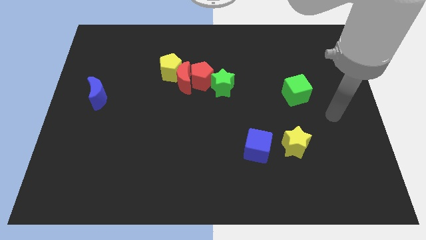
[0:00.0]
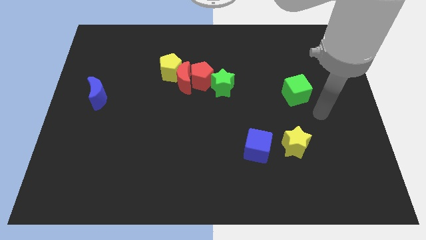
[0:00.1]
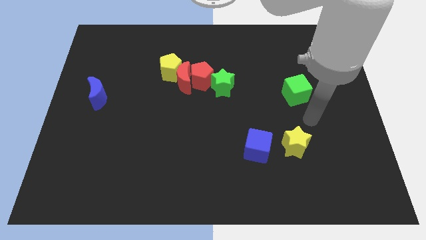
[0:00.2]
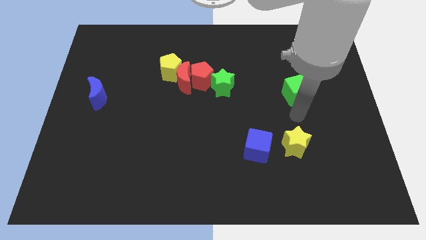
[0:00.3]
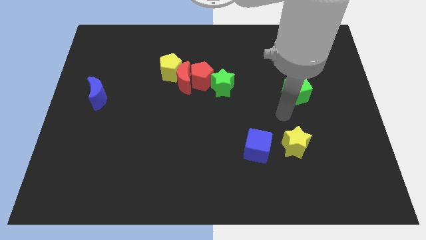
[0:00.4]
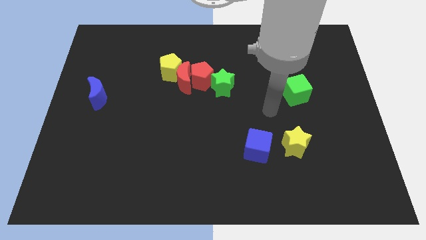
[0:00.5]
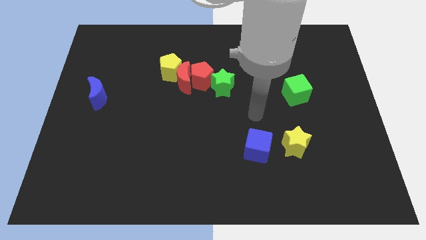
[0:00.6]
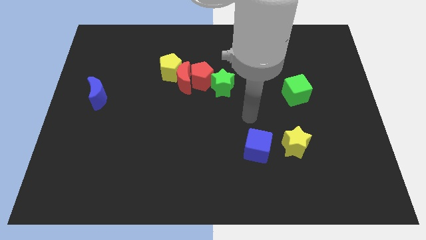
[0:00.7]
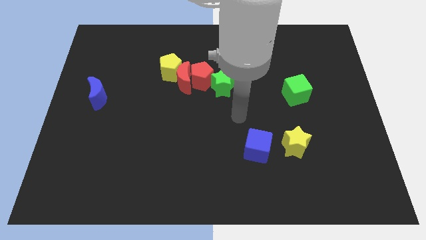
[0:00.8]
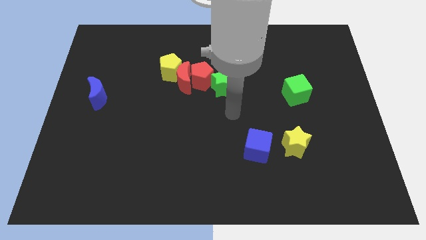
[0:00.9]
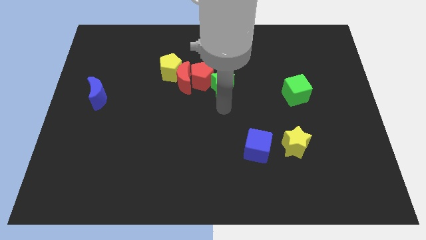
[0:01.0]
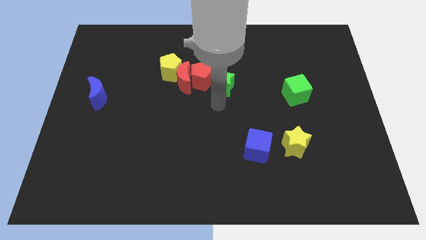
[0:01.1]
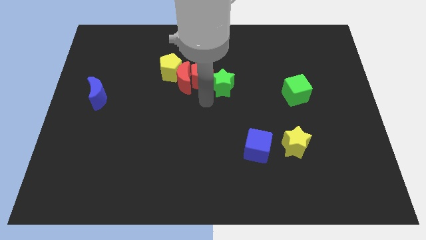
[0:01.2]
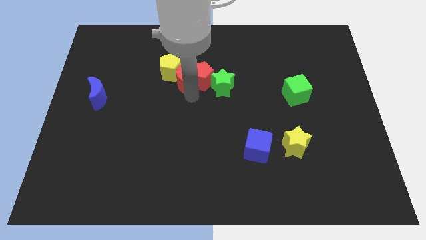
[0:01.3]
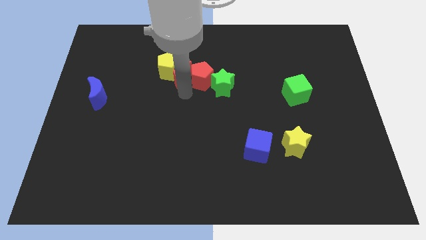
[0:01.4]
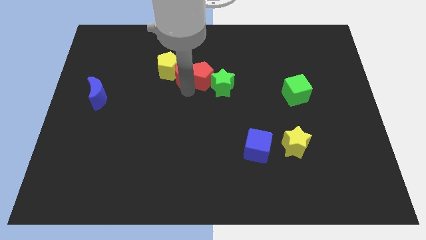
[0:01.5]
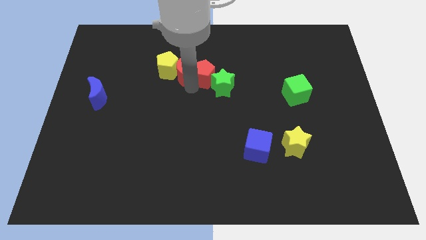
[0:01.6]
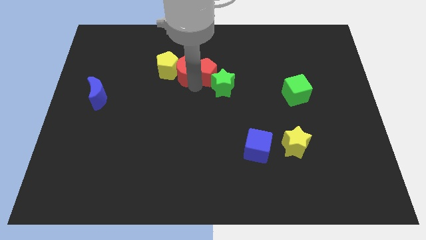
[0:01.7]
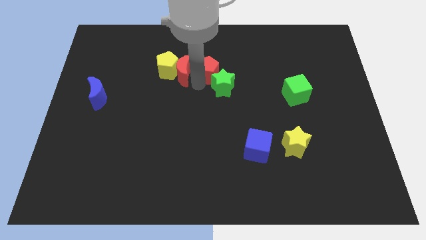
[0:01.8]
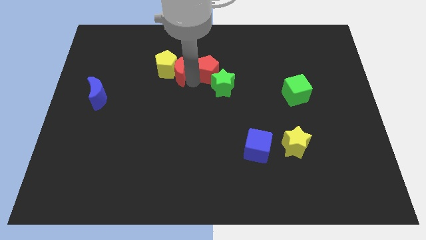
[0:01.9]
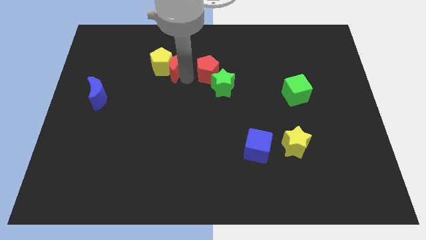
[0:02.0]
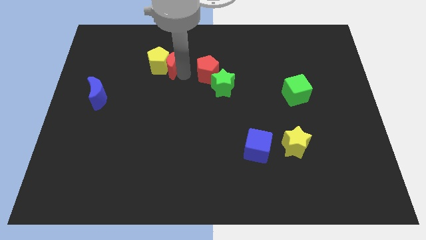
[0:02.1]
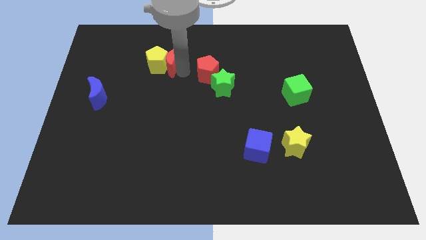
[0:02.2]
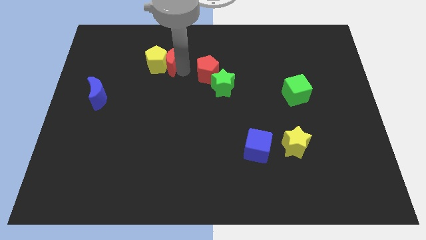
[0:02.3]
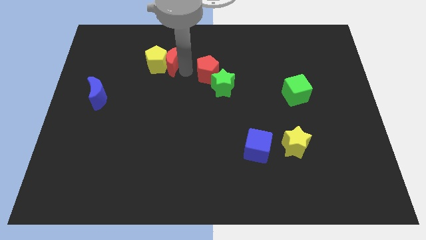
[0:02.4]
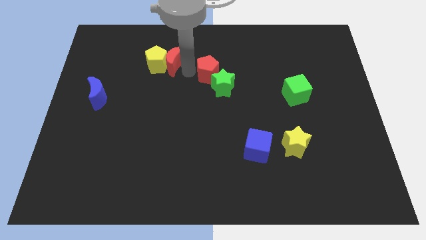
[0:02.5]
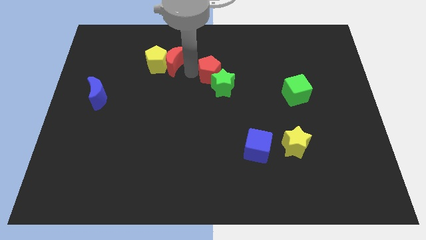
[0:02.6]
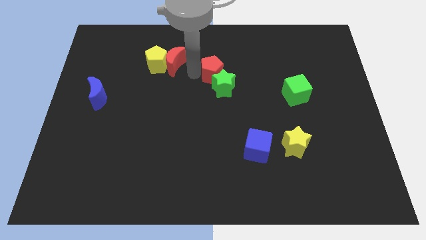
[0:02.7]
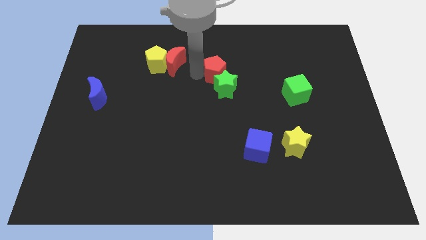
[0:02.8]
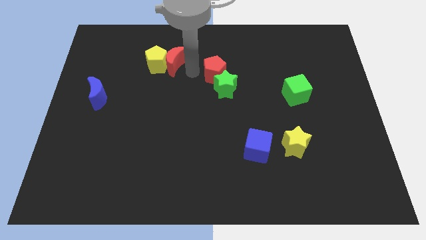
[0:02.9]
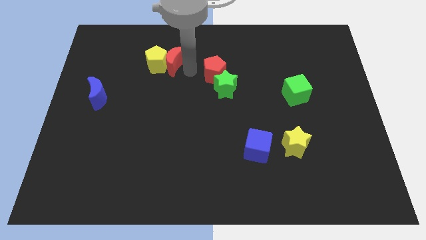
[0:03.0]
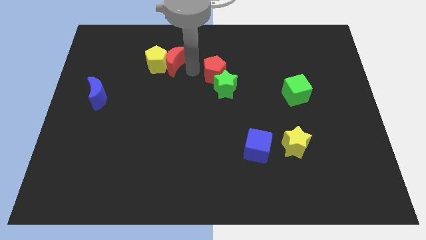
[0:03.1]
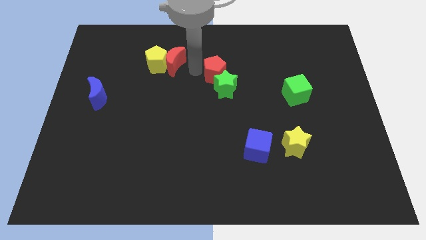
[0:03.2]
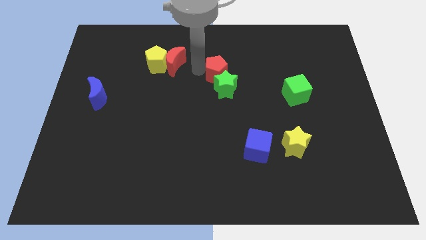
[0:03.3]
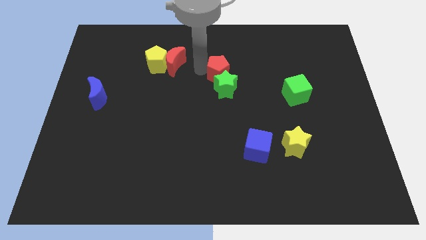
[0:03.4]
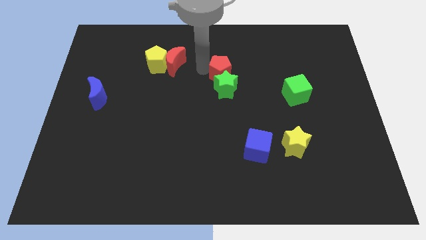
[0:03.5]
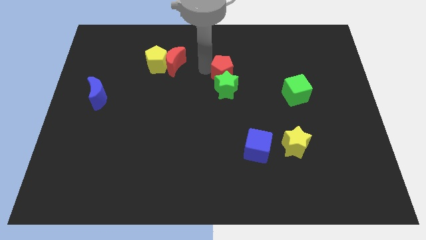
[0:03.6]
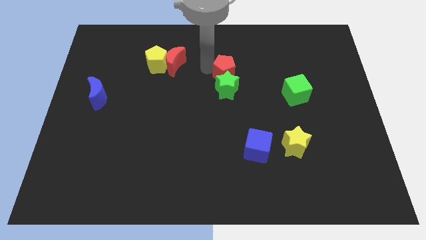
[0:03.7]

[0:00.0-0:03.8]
pull the red pentagon apart from the group of blocks

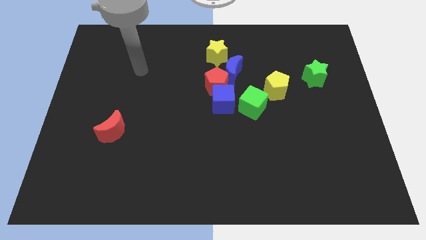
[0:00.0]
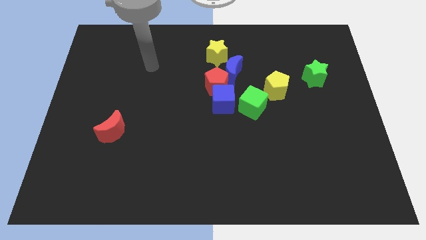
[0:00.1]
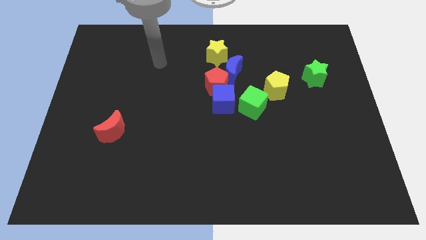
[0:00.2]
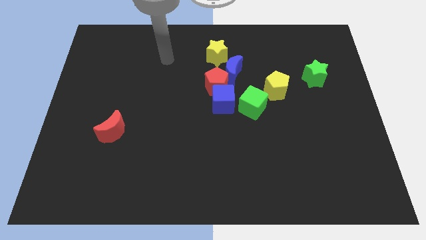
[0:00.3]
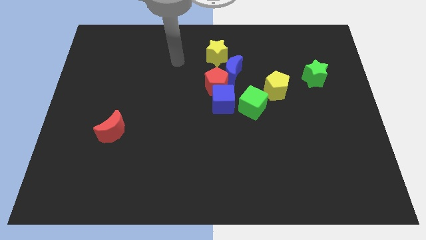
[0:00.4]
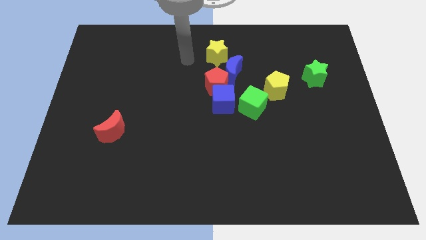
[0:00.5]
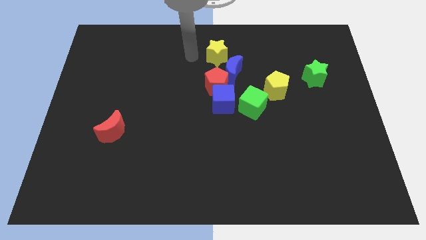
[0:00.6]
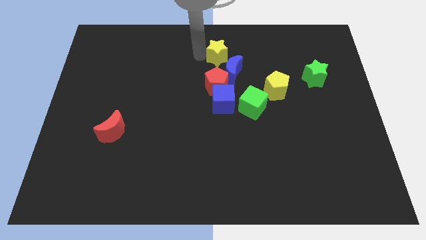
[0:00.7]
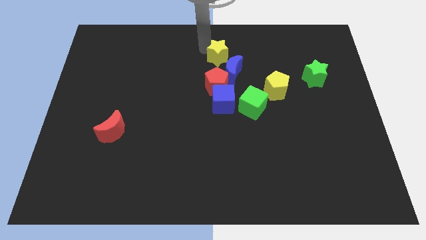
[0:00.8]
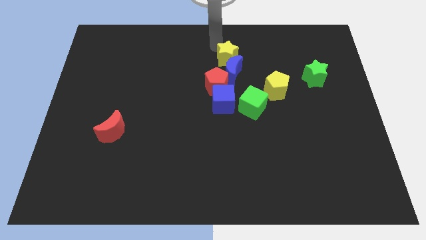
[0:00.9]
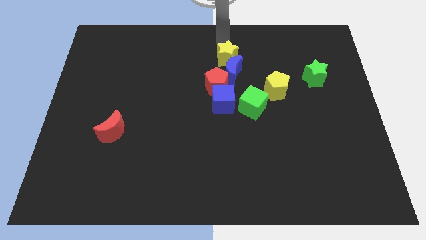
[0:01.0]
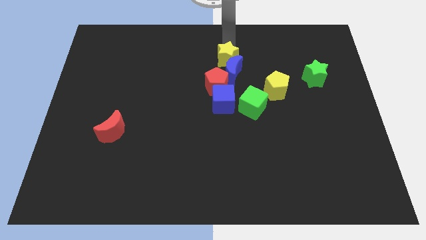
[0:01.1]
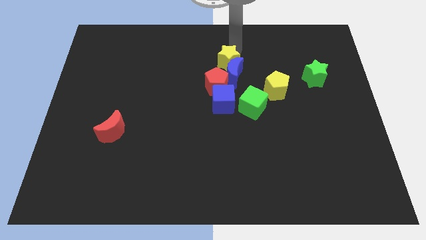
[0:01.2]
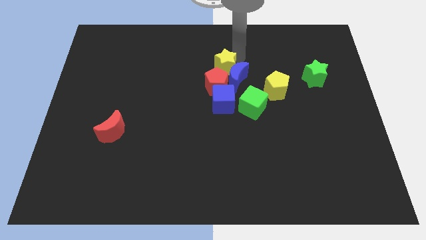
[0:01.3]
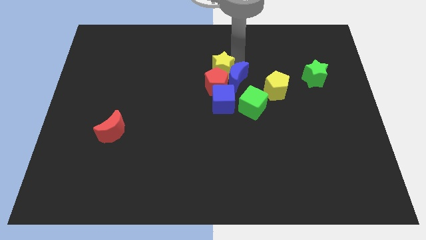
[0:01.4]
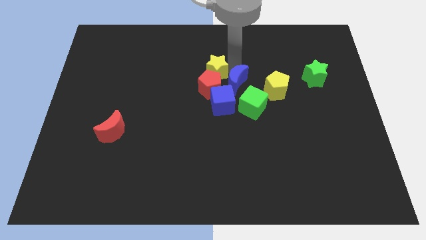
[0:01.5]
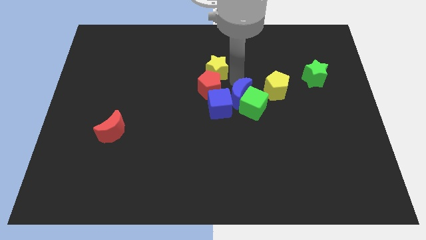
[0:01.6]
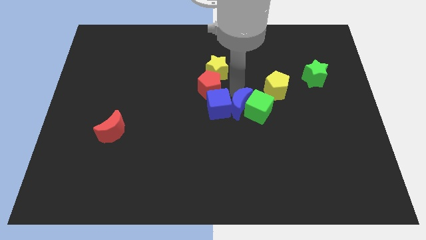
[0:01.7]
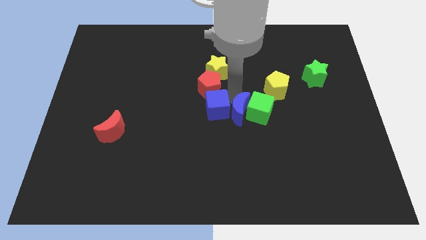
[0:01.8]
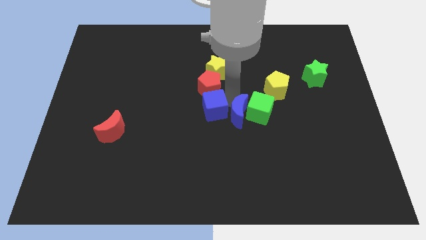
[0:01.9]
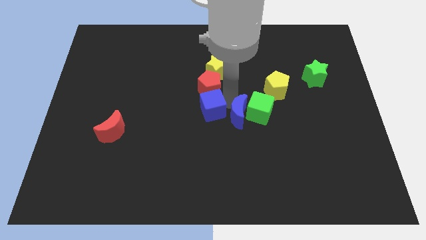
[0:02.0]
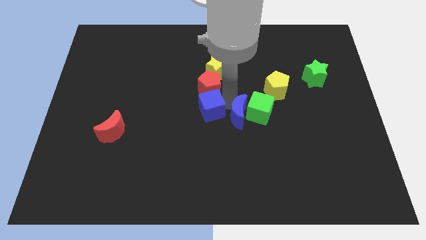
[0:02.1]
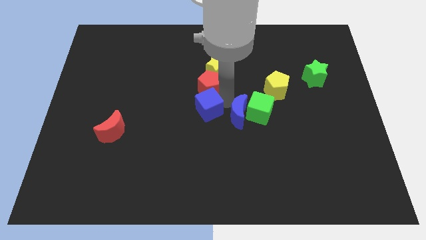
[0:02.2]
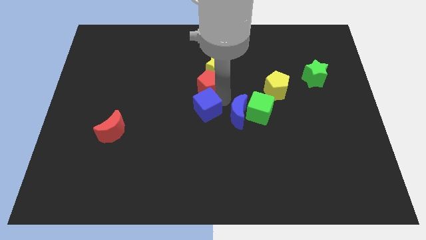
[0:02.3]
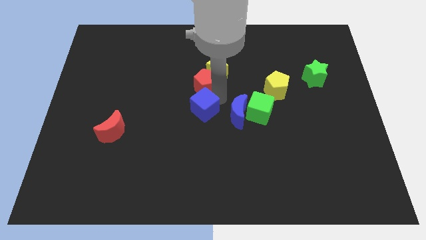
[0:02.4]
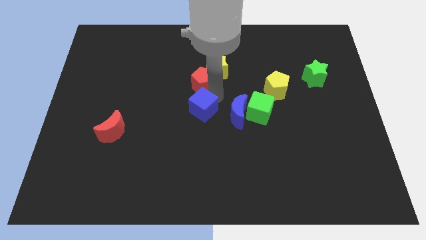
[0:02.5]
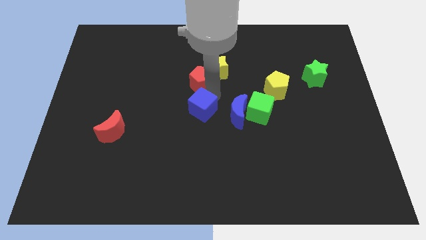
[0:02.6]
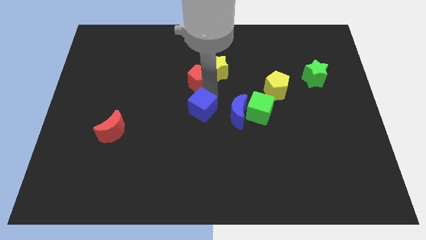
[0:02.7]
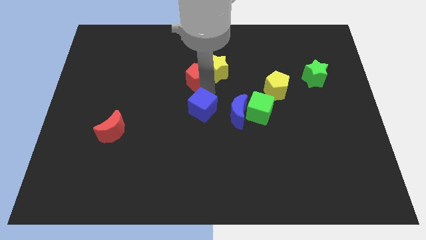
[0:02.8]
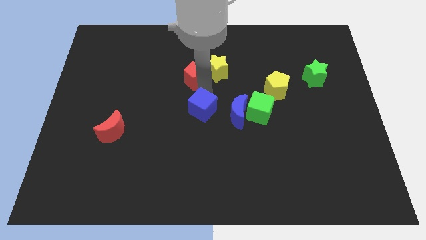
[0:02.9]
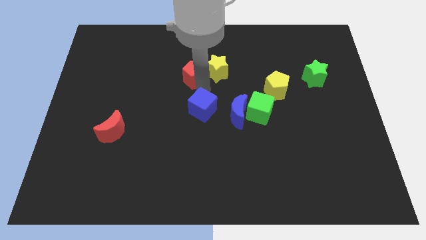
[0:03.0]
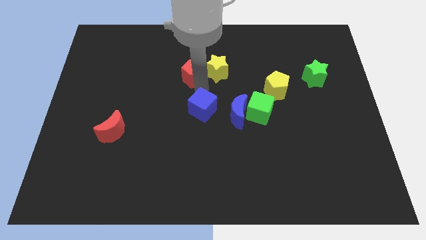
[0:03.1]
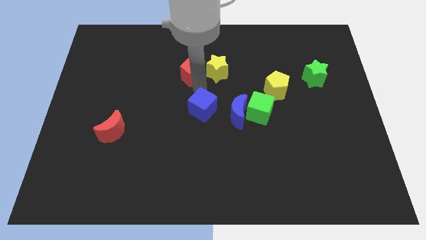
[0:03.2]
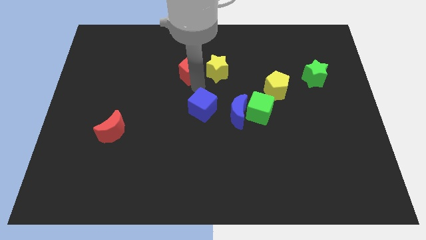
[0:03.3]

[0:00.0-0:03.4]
separate the red pentagon from the blue moon, blue cube, and yellow star

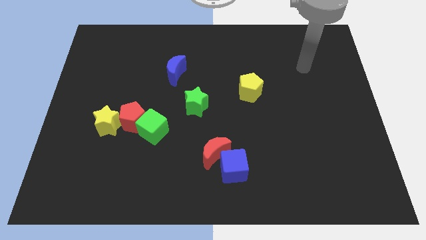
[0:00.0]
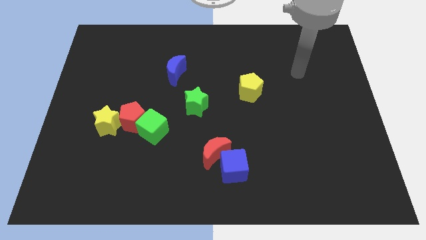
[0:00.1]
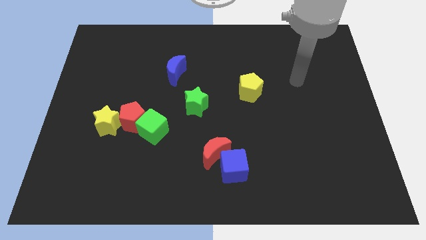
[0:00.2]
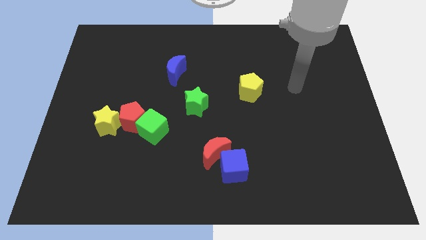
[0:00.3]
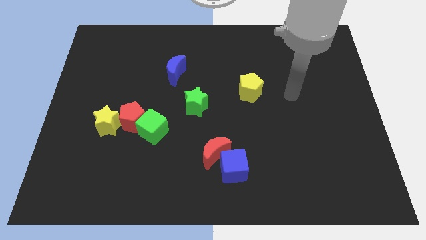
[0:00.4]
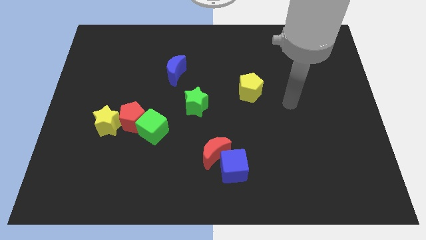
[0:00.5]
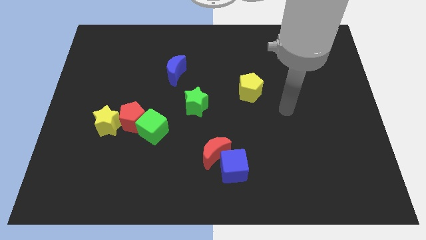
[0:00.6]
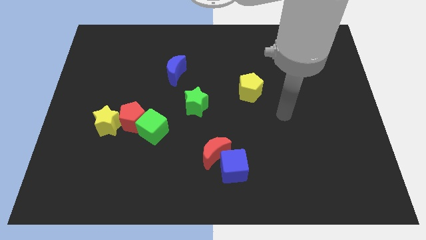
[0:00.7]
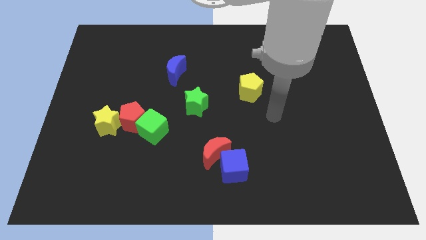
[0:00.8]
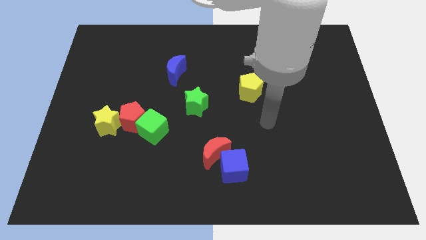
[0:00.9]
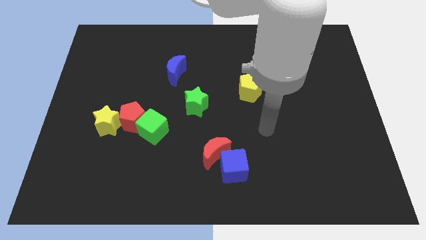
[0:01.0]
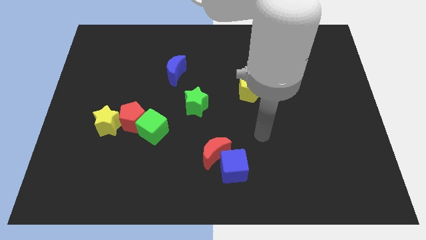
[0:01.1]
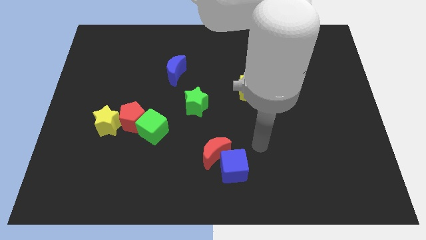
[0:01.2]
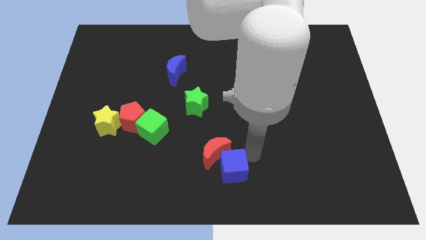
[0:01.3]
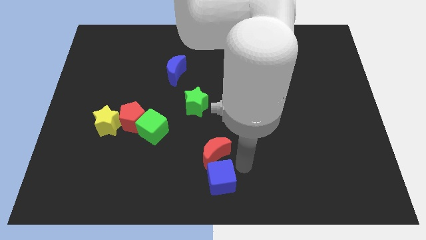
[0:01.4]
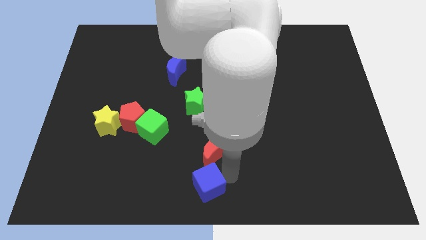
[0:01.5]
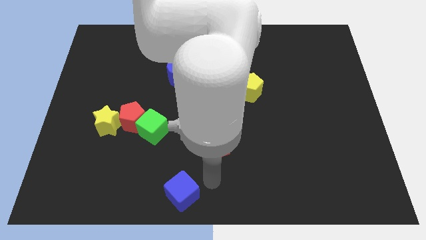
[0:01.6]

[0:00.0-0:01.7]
pull the red moon apart from the blue cube

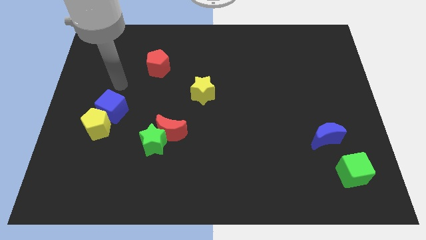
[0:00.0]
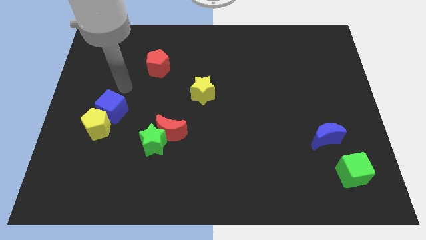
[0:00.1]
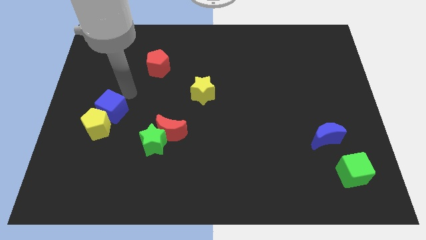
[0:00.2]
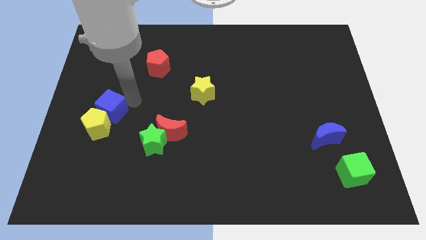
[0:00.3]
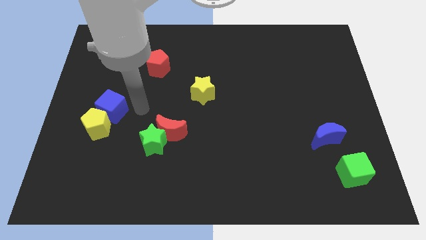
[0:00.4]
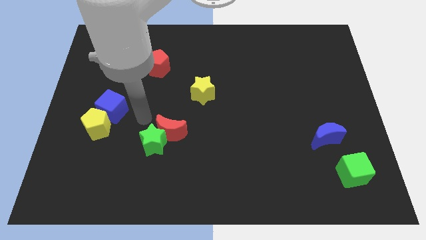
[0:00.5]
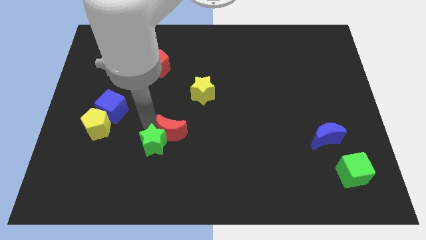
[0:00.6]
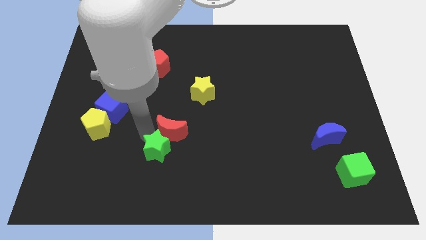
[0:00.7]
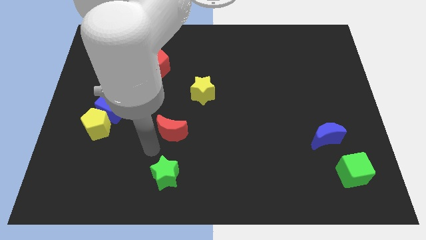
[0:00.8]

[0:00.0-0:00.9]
move the red moon away from the green star
